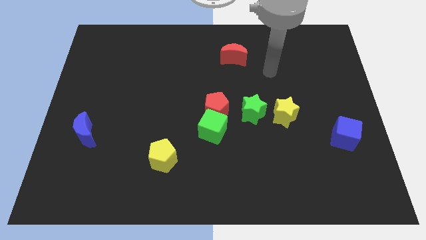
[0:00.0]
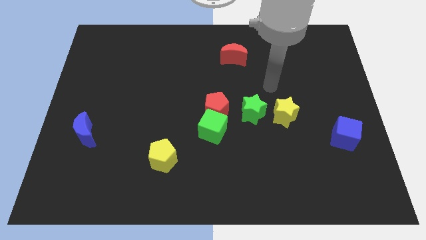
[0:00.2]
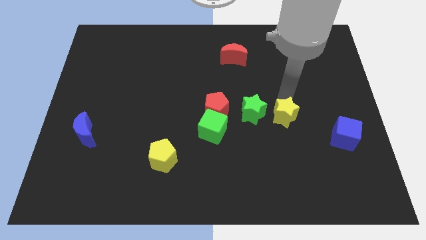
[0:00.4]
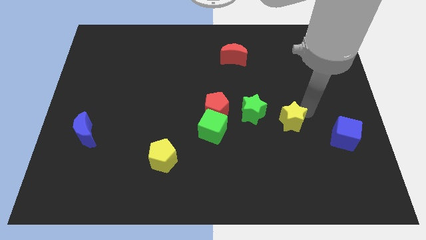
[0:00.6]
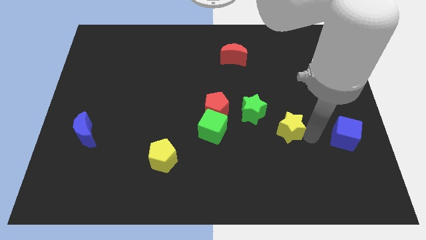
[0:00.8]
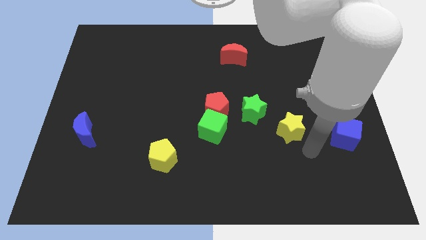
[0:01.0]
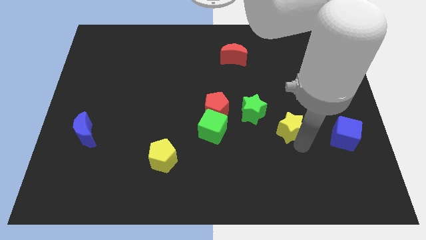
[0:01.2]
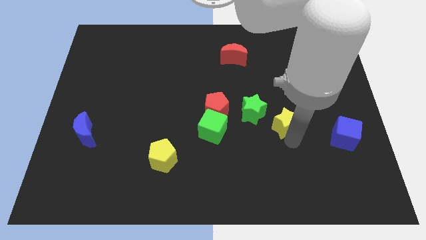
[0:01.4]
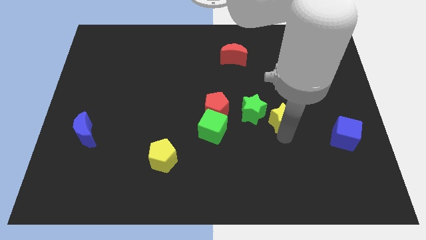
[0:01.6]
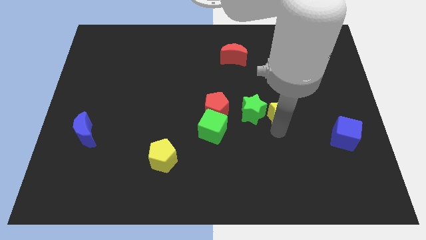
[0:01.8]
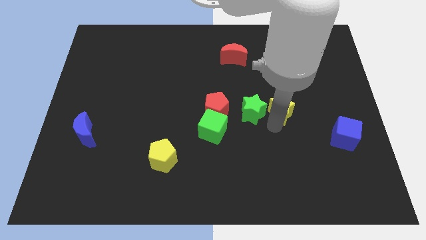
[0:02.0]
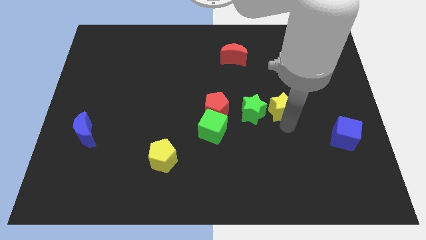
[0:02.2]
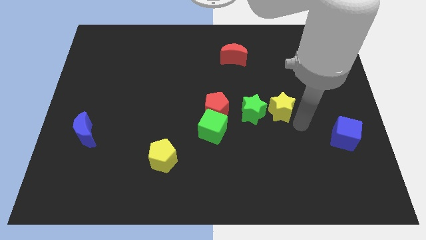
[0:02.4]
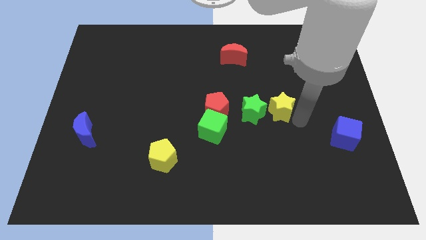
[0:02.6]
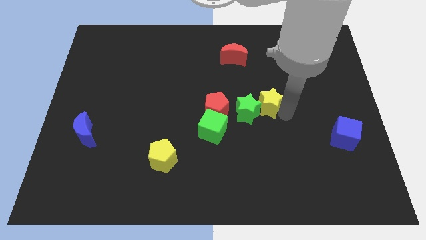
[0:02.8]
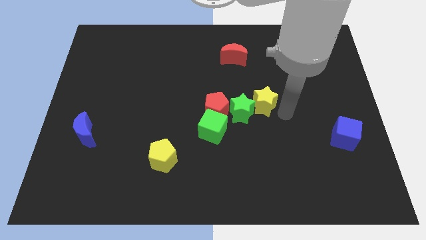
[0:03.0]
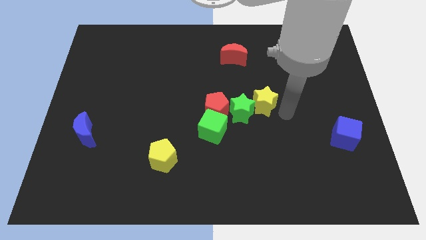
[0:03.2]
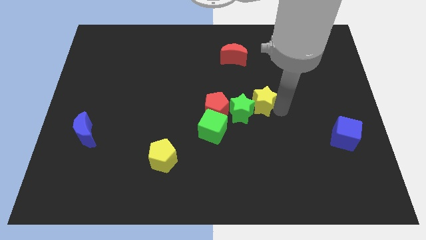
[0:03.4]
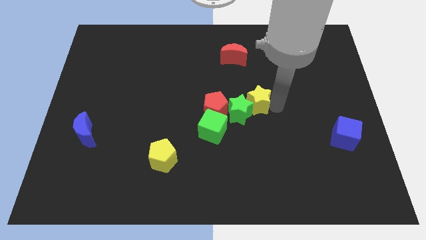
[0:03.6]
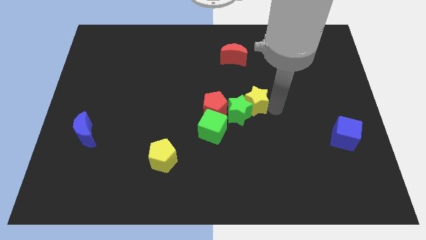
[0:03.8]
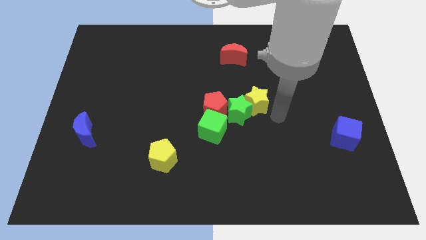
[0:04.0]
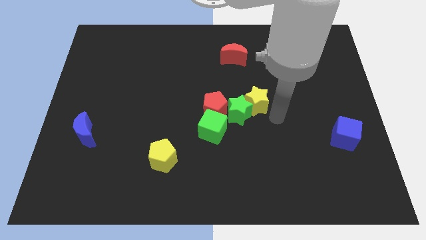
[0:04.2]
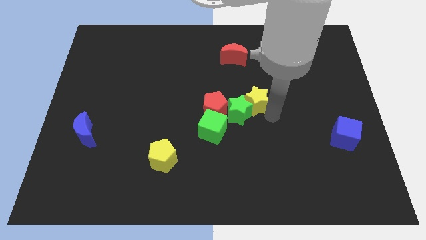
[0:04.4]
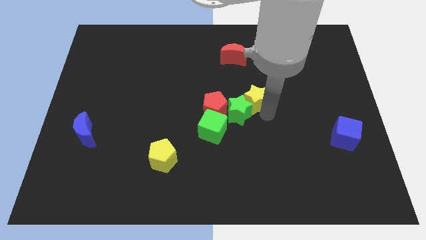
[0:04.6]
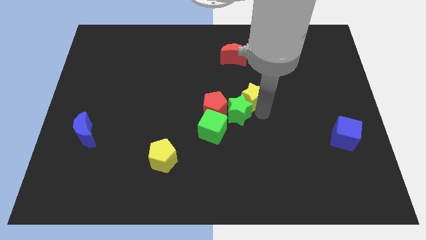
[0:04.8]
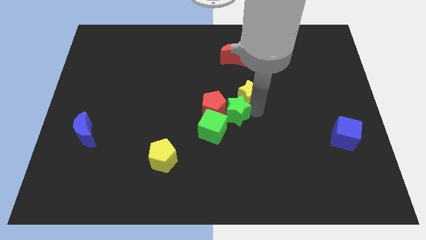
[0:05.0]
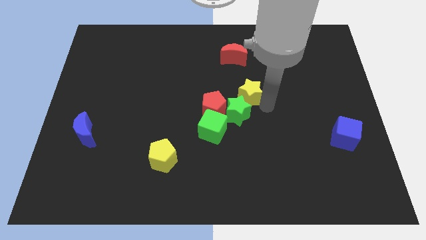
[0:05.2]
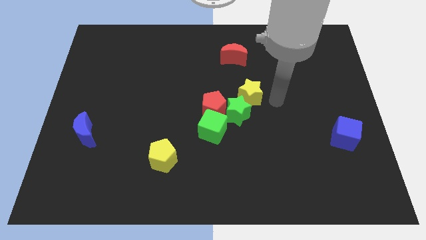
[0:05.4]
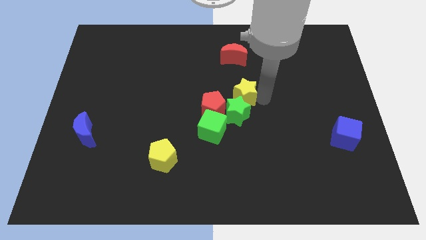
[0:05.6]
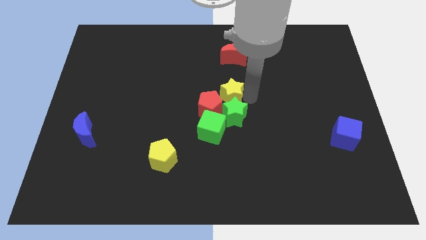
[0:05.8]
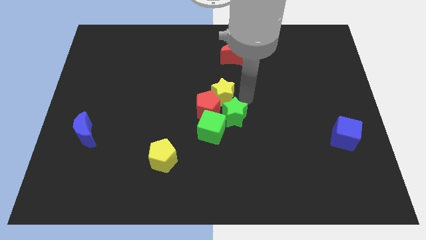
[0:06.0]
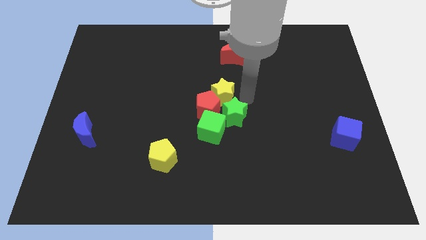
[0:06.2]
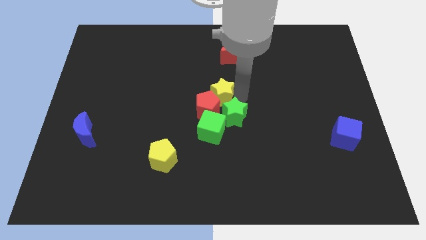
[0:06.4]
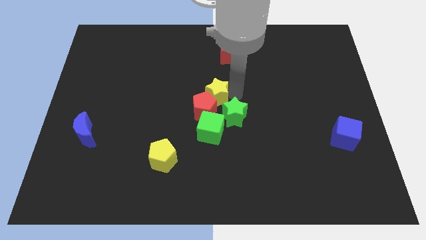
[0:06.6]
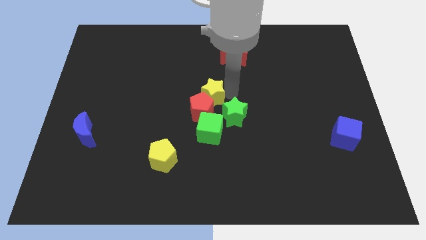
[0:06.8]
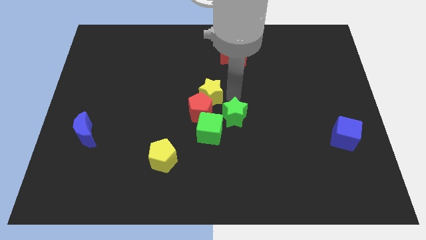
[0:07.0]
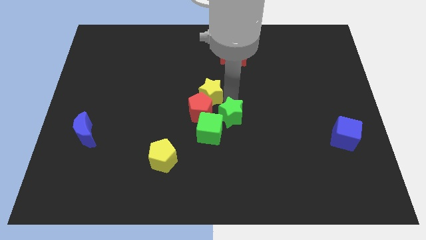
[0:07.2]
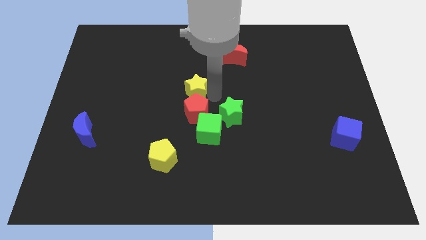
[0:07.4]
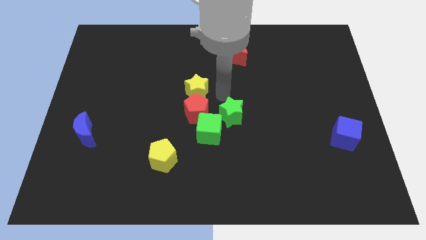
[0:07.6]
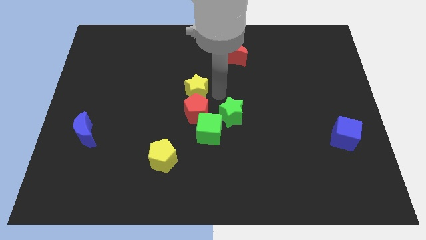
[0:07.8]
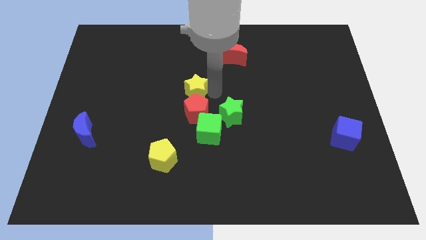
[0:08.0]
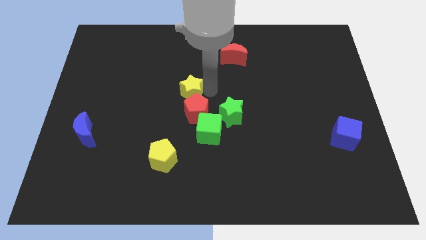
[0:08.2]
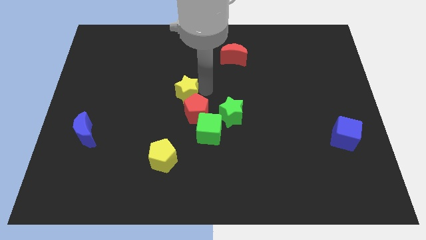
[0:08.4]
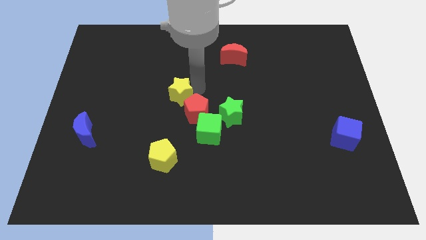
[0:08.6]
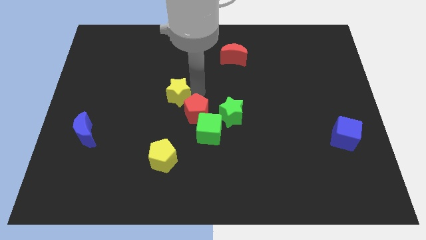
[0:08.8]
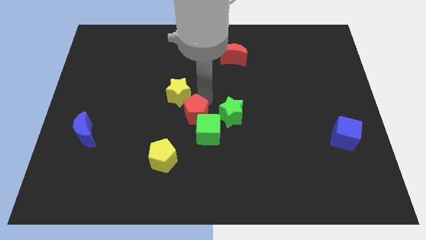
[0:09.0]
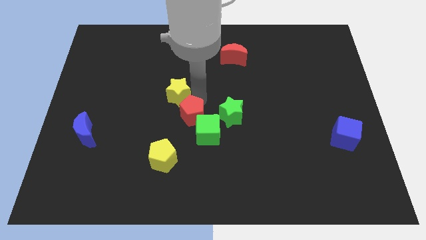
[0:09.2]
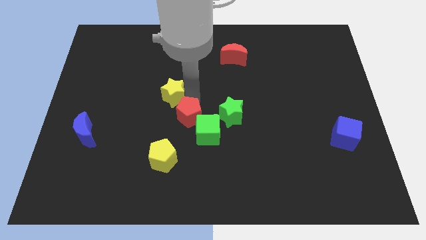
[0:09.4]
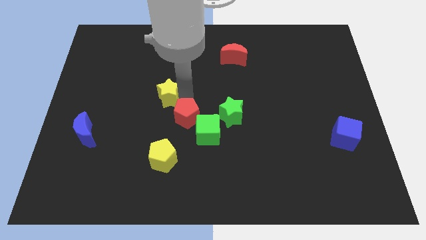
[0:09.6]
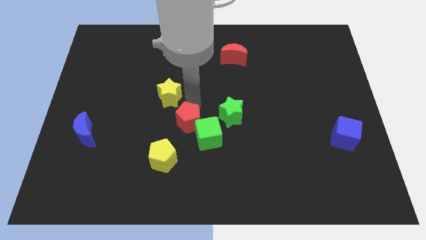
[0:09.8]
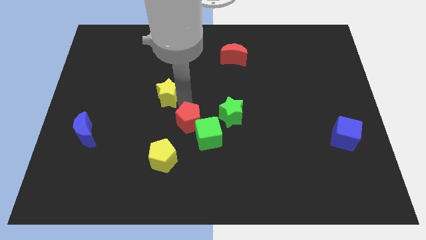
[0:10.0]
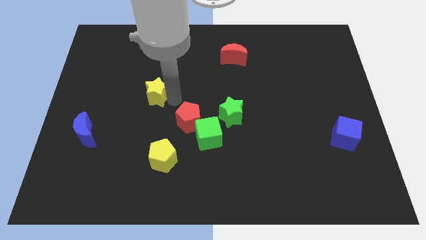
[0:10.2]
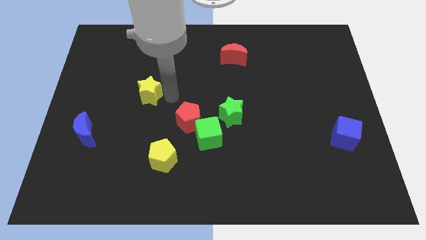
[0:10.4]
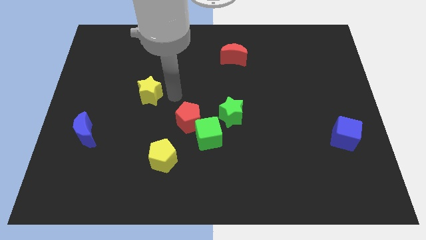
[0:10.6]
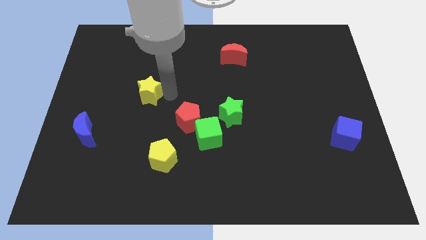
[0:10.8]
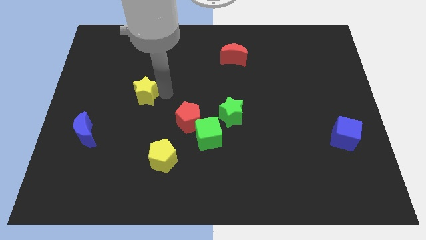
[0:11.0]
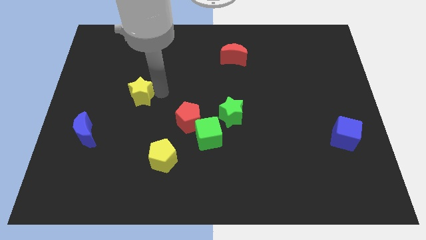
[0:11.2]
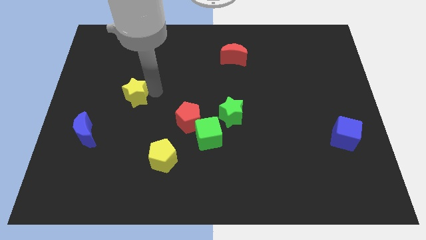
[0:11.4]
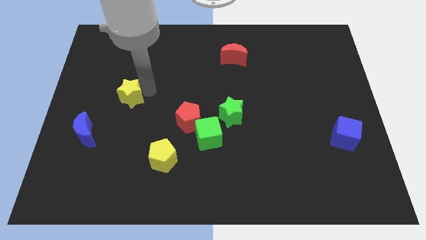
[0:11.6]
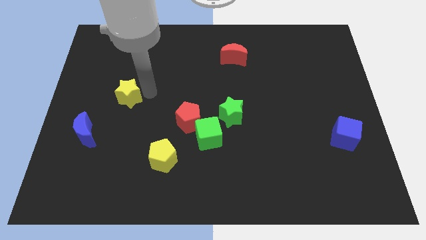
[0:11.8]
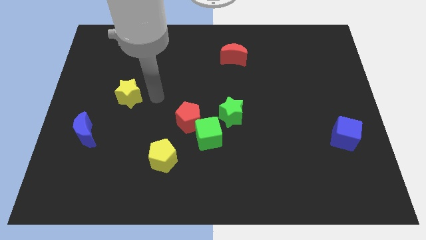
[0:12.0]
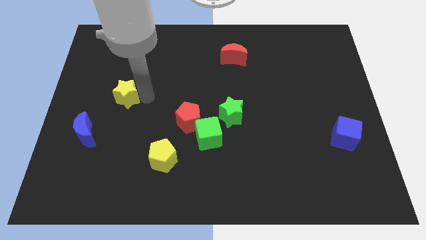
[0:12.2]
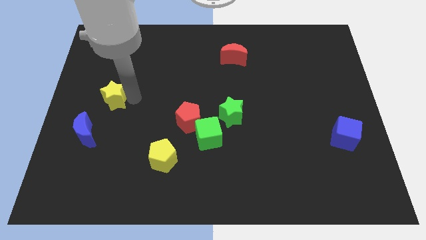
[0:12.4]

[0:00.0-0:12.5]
move the yellow star above the blue moon

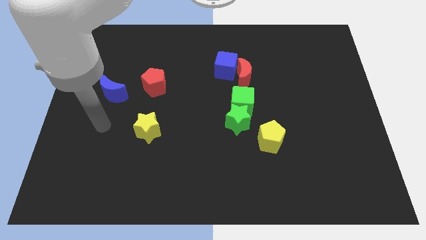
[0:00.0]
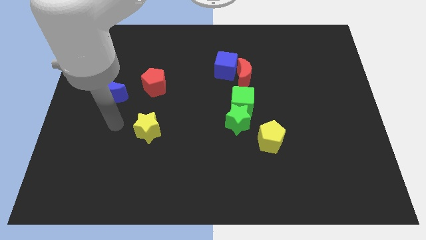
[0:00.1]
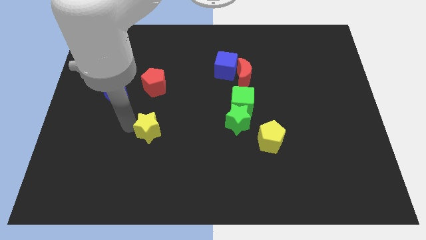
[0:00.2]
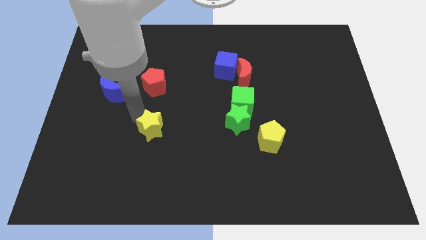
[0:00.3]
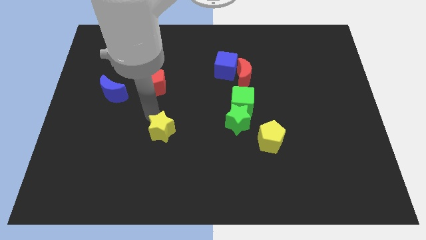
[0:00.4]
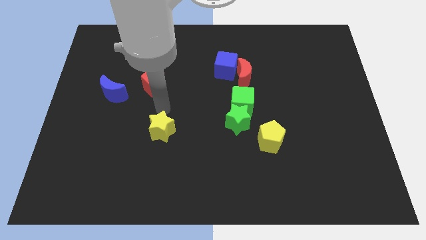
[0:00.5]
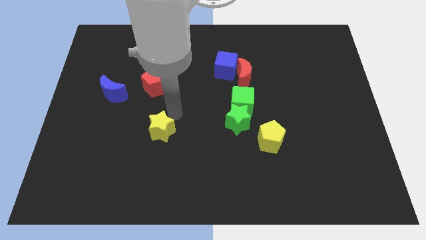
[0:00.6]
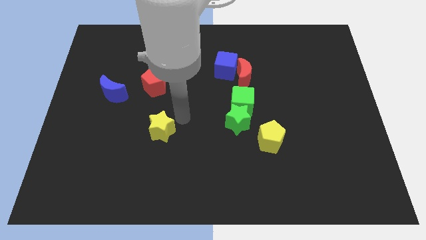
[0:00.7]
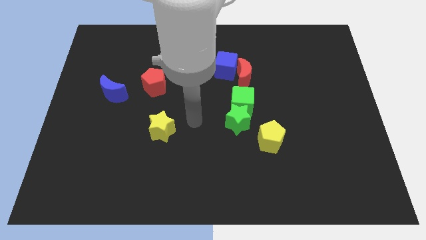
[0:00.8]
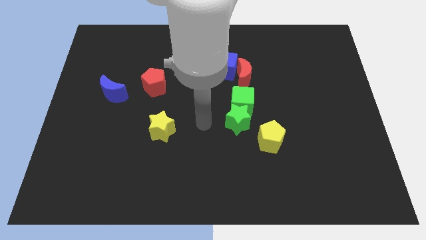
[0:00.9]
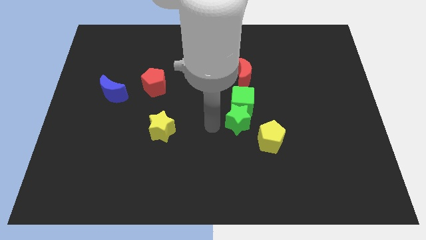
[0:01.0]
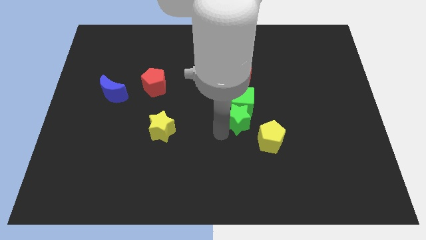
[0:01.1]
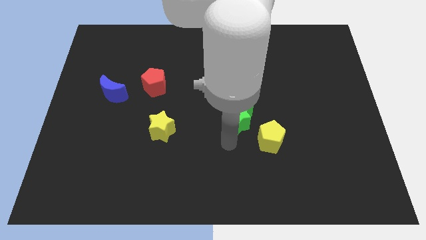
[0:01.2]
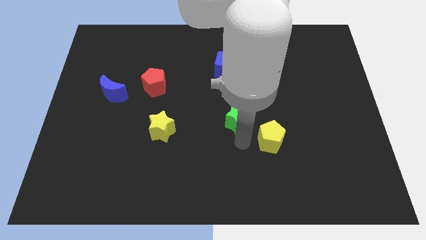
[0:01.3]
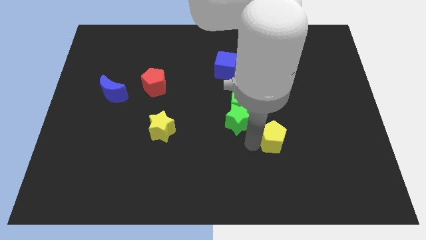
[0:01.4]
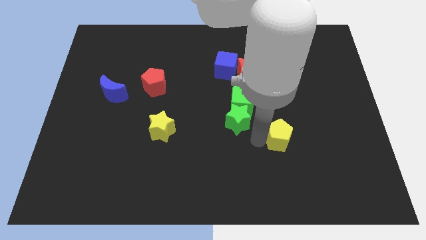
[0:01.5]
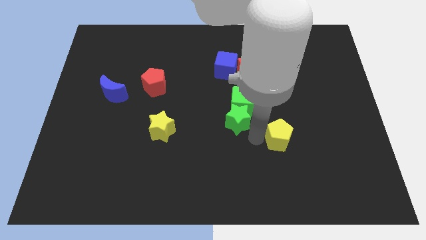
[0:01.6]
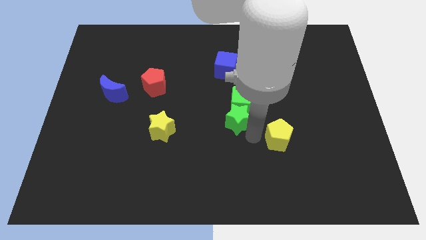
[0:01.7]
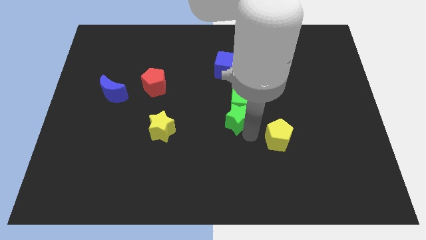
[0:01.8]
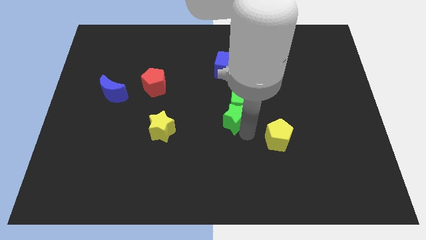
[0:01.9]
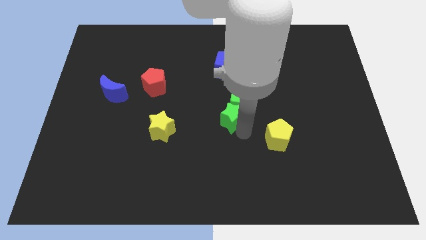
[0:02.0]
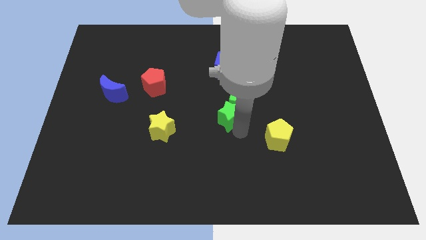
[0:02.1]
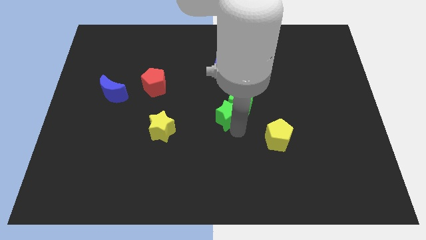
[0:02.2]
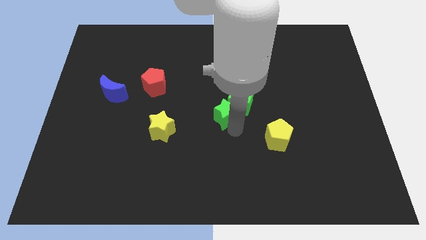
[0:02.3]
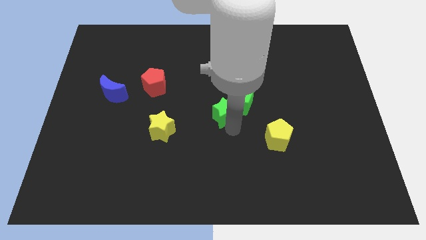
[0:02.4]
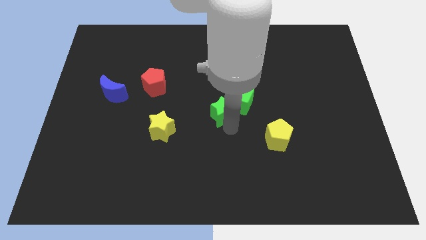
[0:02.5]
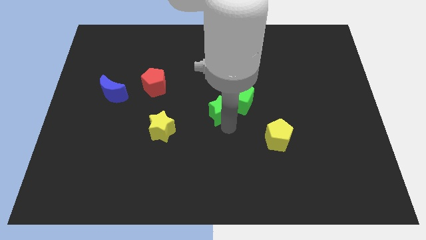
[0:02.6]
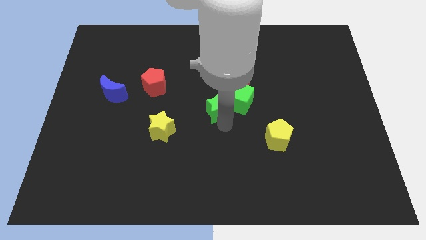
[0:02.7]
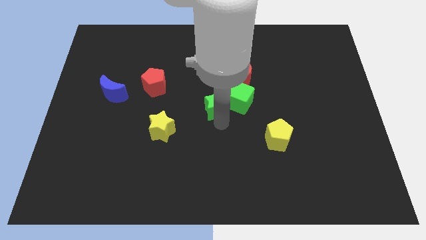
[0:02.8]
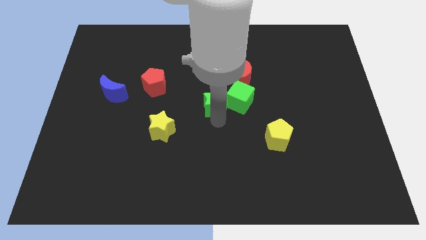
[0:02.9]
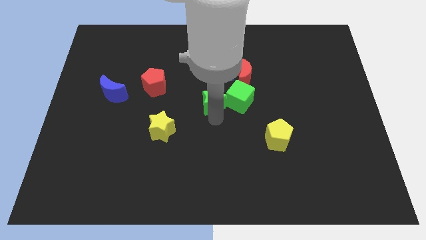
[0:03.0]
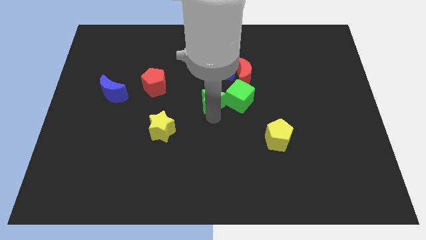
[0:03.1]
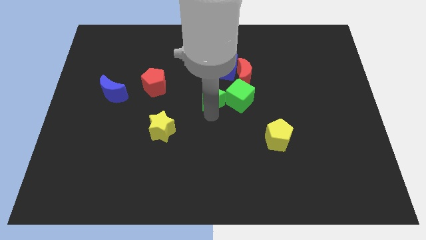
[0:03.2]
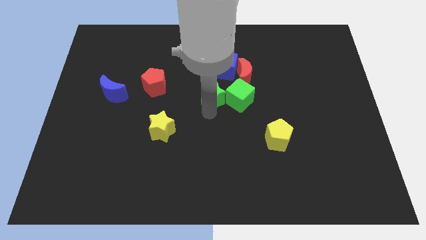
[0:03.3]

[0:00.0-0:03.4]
push the green star to the top left of the green cube
